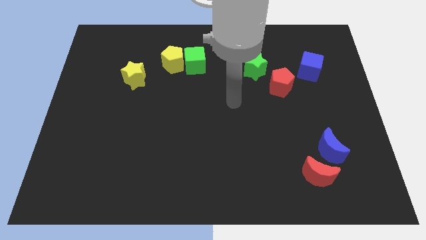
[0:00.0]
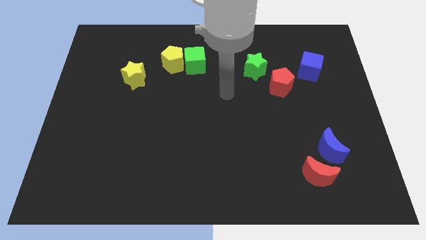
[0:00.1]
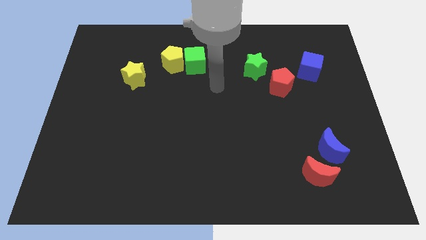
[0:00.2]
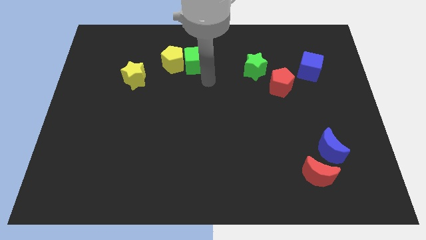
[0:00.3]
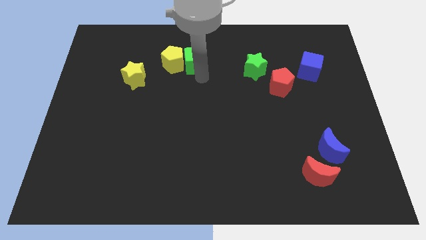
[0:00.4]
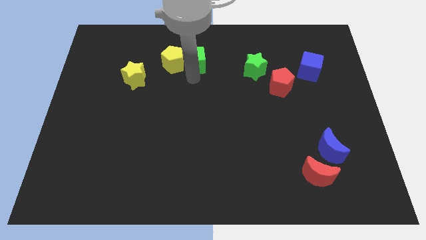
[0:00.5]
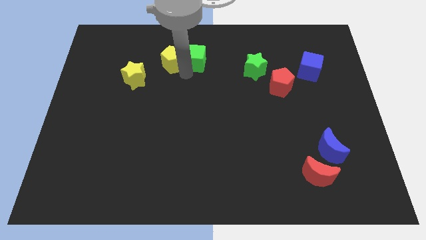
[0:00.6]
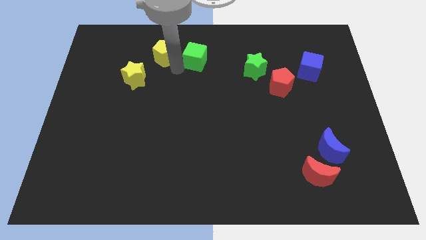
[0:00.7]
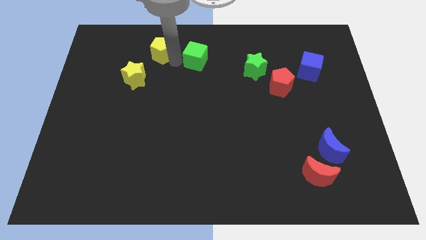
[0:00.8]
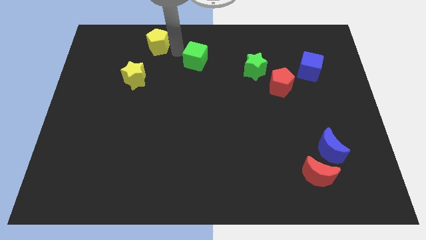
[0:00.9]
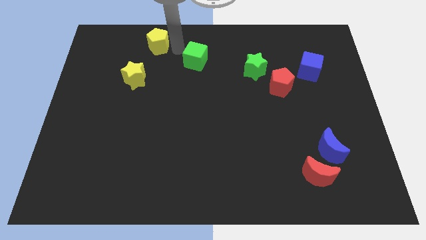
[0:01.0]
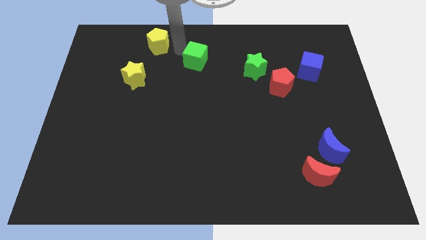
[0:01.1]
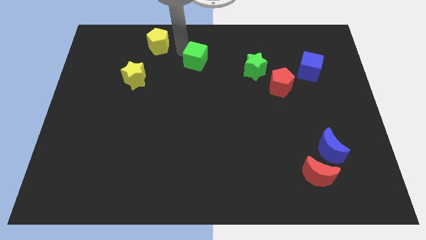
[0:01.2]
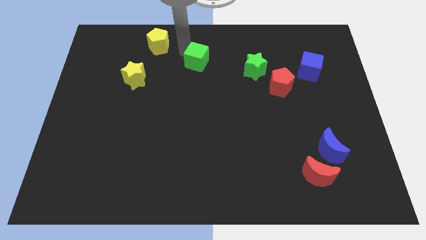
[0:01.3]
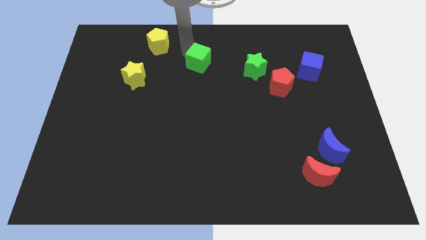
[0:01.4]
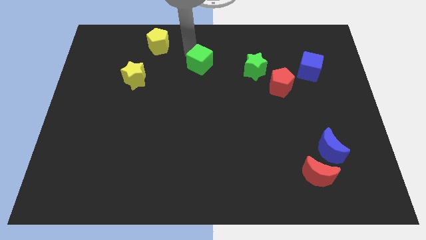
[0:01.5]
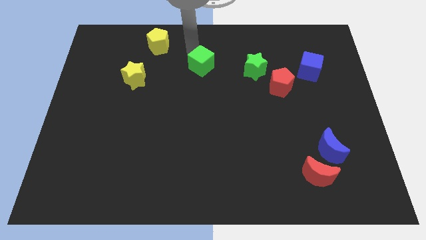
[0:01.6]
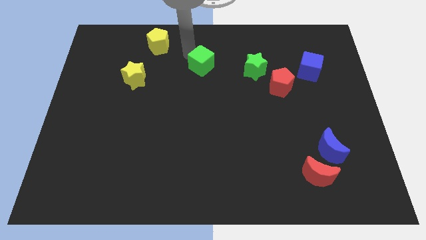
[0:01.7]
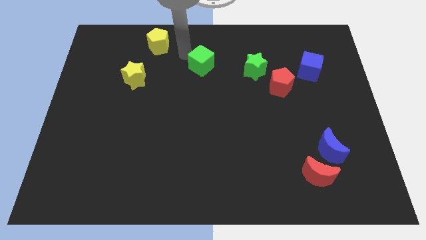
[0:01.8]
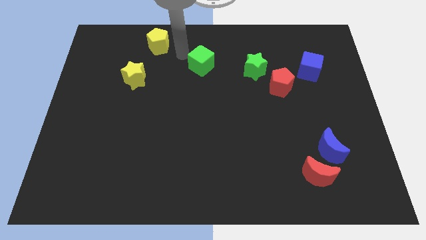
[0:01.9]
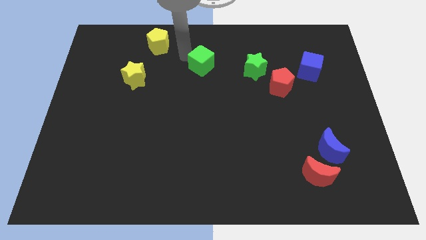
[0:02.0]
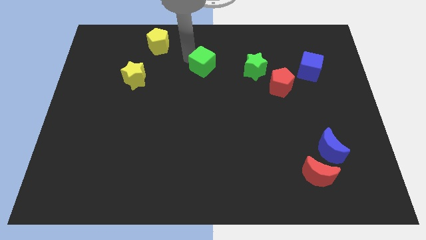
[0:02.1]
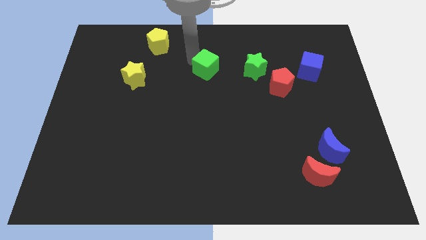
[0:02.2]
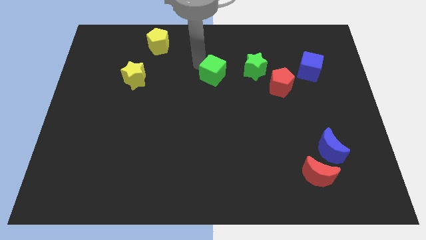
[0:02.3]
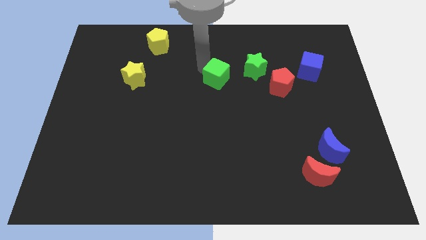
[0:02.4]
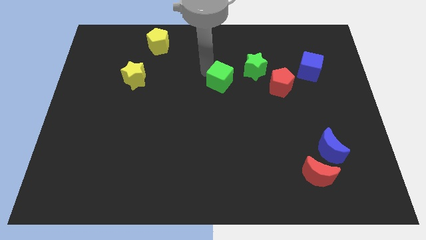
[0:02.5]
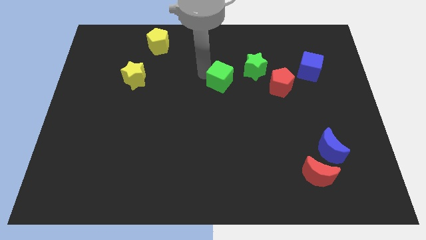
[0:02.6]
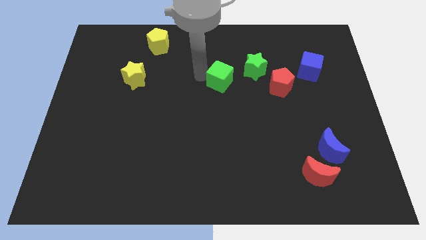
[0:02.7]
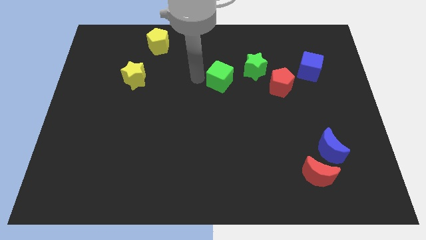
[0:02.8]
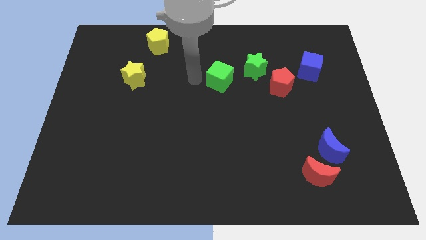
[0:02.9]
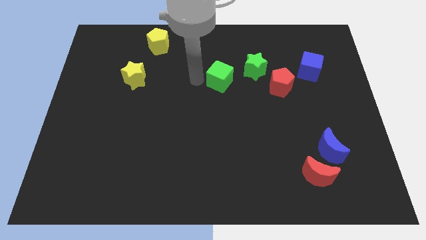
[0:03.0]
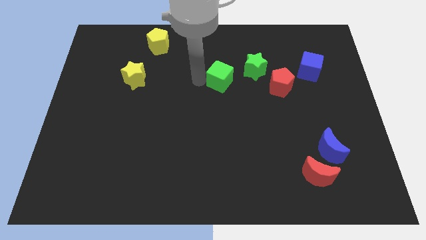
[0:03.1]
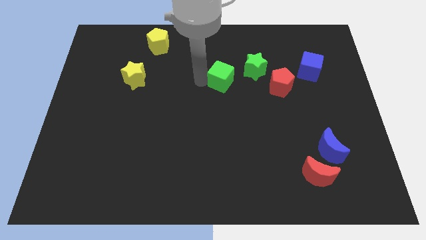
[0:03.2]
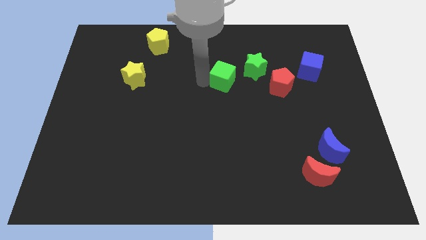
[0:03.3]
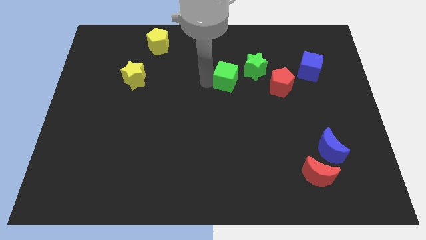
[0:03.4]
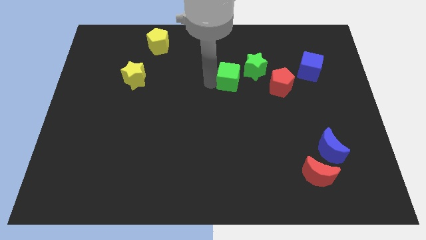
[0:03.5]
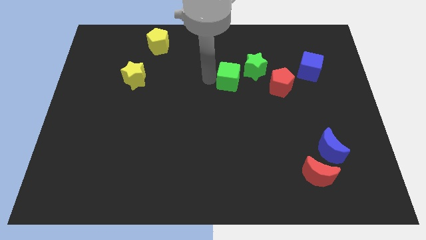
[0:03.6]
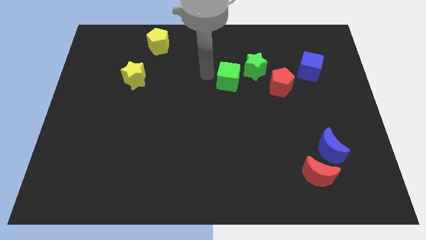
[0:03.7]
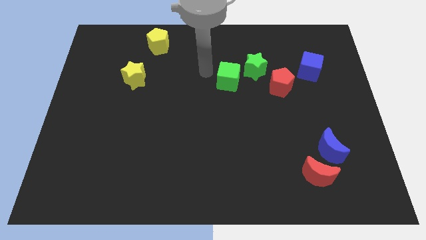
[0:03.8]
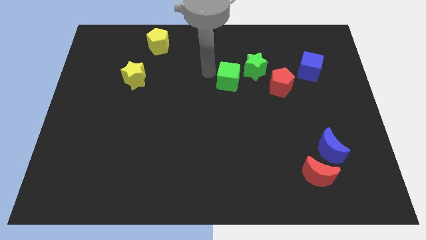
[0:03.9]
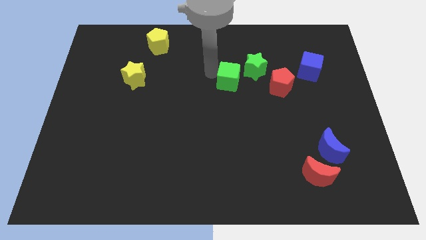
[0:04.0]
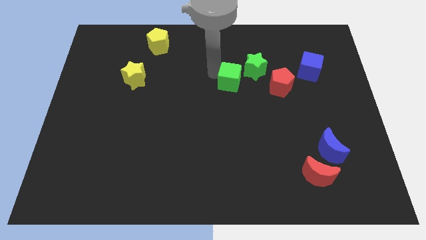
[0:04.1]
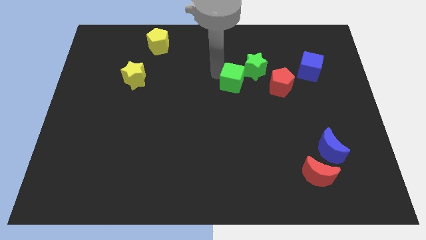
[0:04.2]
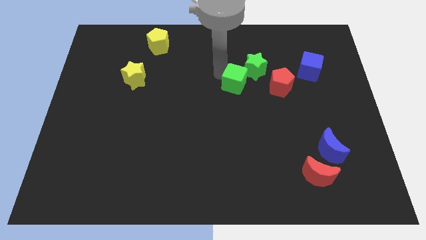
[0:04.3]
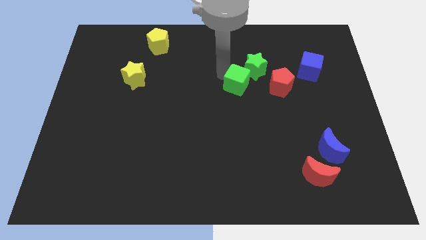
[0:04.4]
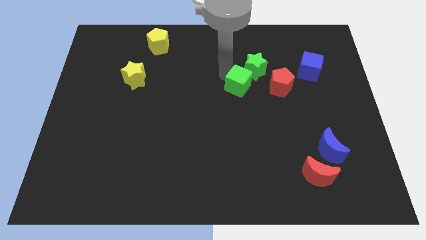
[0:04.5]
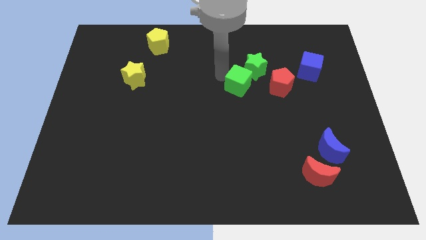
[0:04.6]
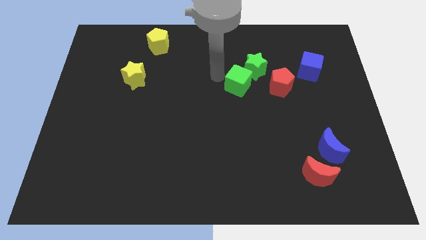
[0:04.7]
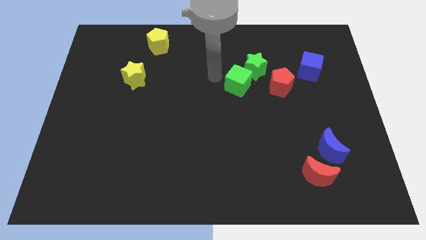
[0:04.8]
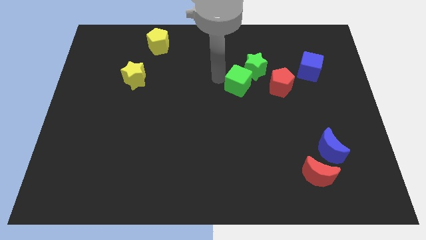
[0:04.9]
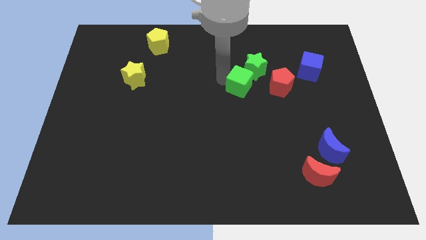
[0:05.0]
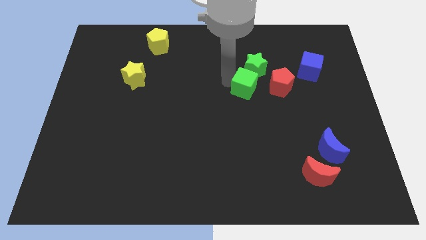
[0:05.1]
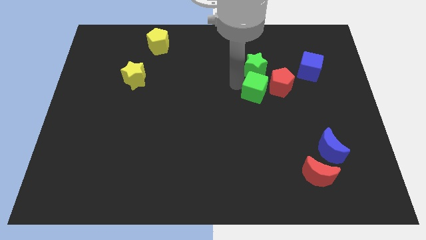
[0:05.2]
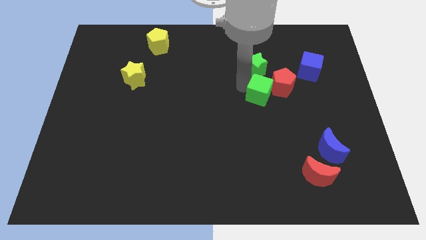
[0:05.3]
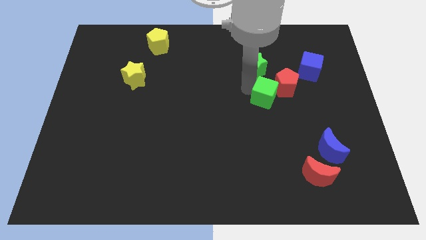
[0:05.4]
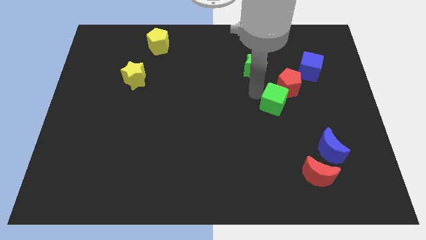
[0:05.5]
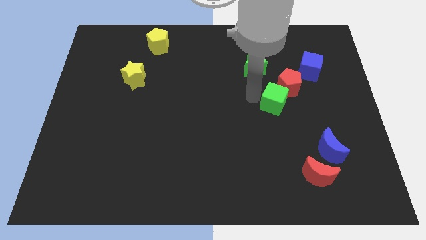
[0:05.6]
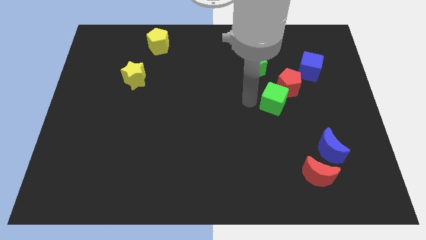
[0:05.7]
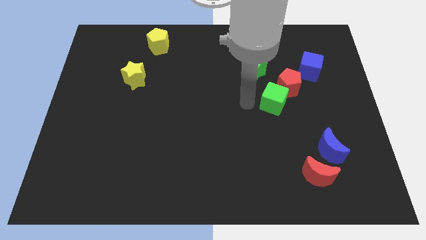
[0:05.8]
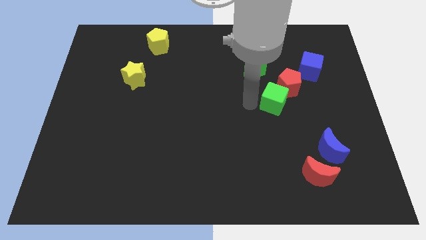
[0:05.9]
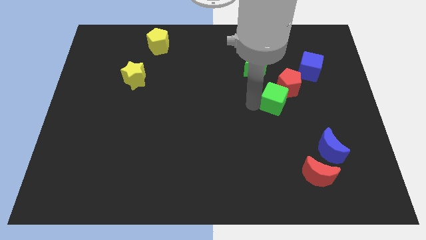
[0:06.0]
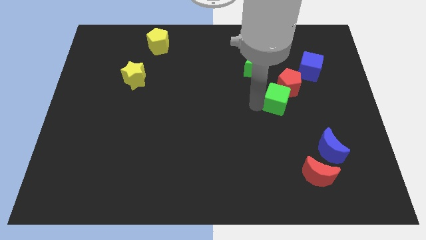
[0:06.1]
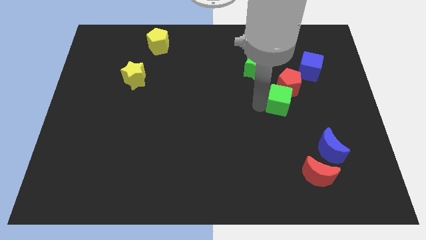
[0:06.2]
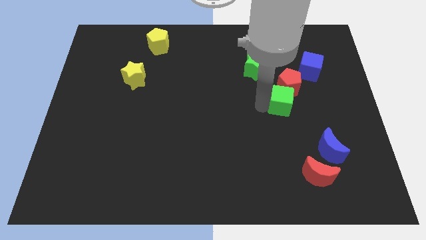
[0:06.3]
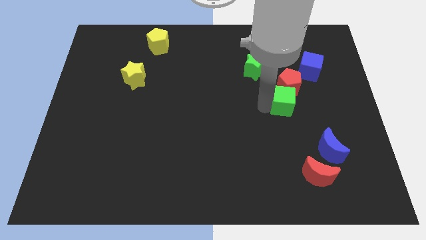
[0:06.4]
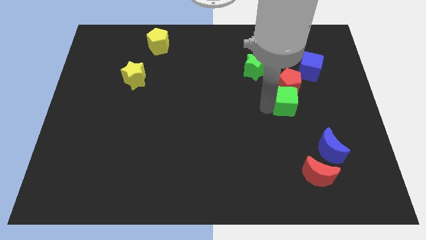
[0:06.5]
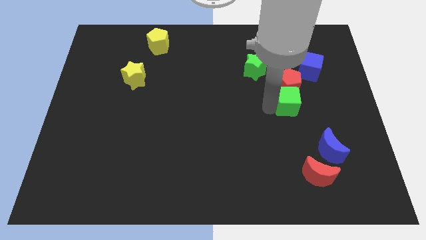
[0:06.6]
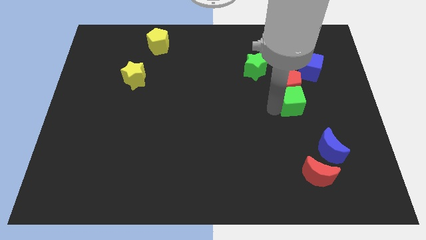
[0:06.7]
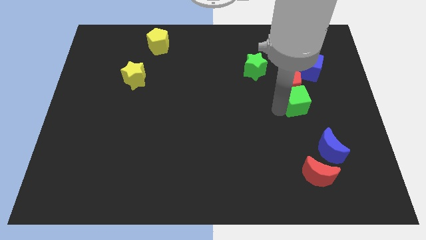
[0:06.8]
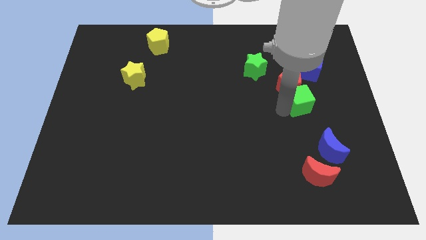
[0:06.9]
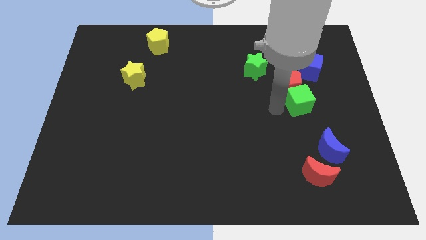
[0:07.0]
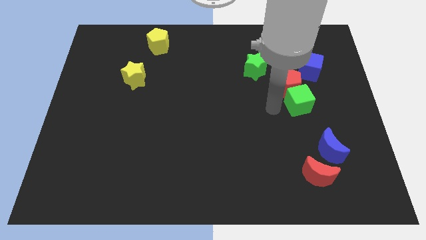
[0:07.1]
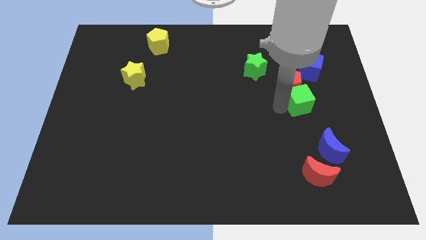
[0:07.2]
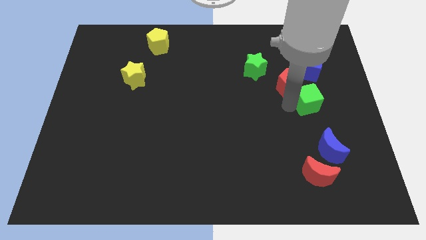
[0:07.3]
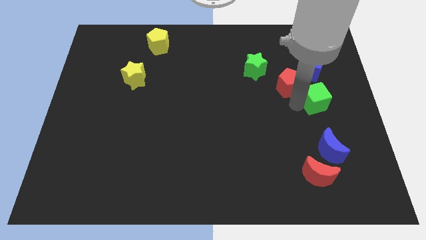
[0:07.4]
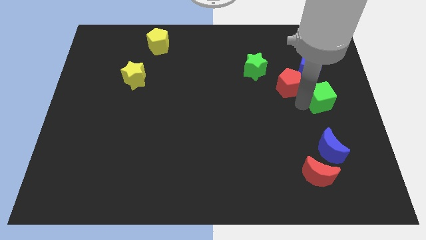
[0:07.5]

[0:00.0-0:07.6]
move the green cube to the center right
